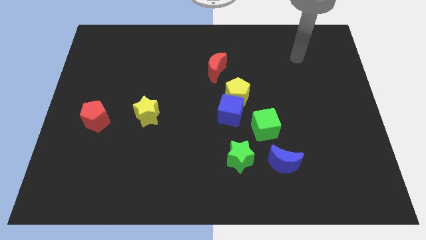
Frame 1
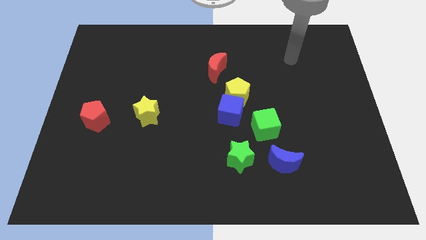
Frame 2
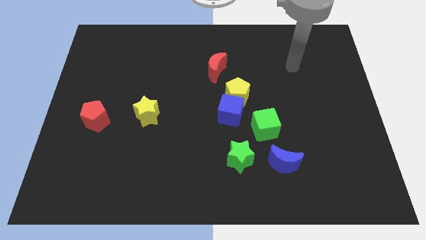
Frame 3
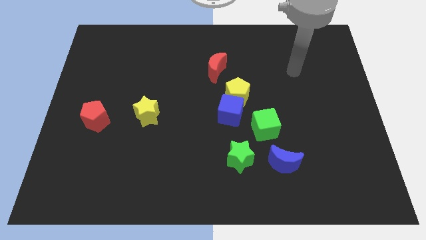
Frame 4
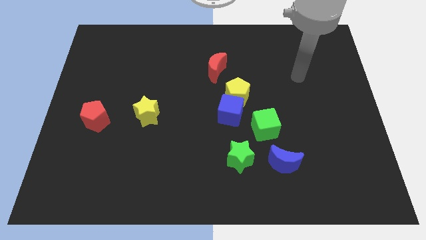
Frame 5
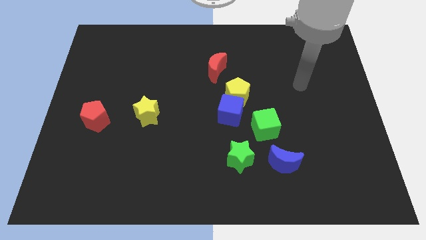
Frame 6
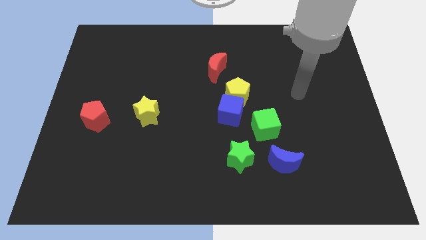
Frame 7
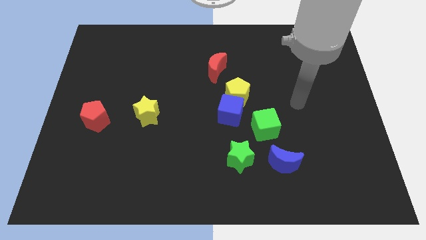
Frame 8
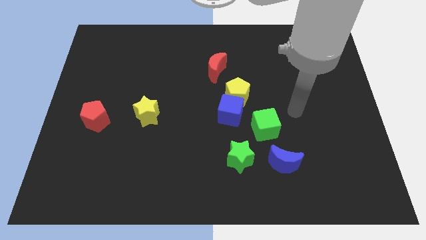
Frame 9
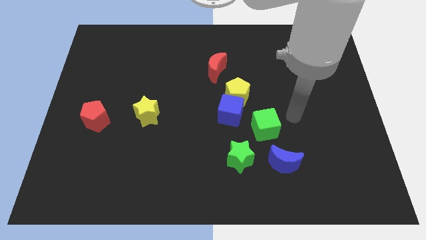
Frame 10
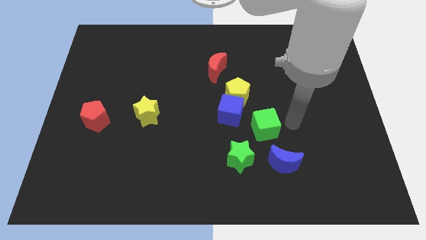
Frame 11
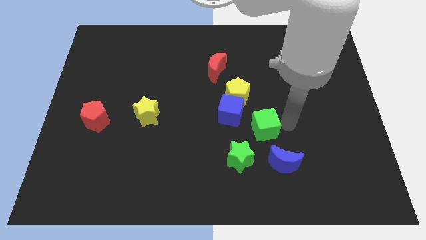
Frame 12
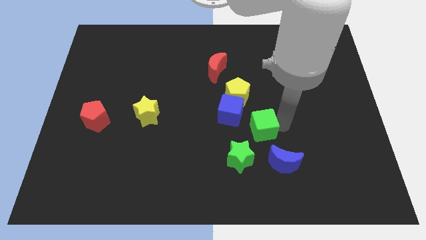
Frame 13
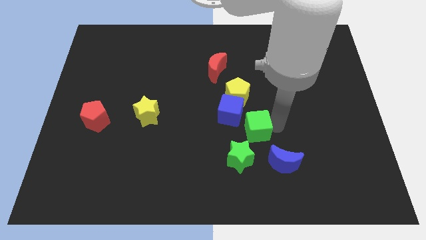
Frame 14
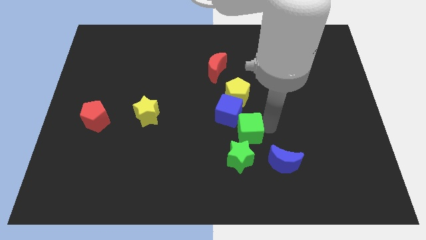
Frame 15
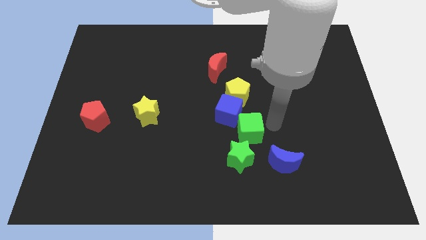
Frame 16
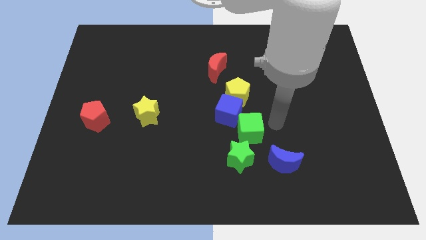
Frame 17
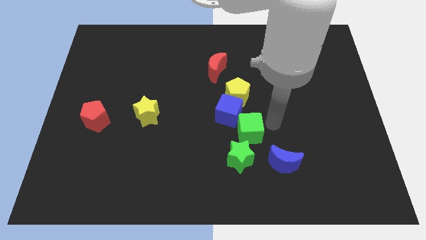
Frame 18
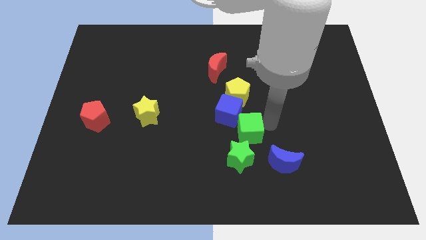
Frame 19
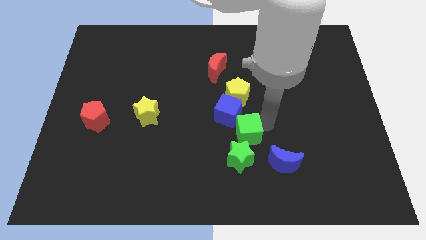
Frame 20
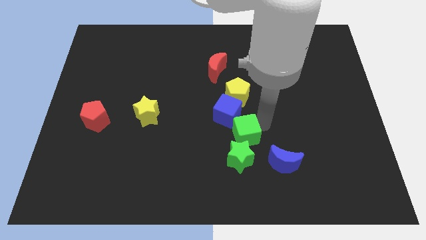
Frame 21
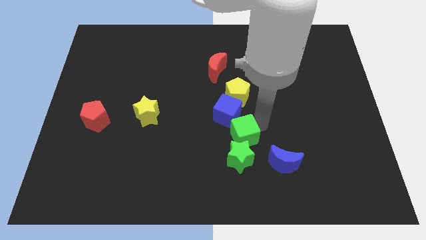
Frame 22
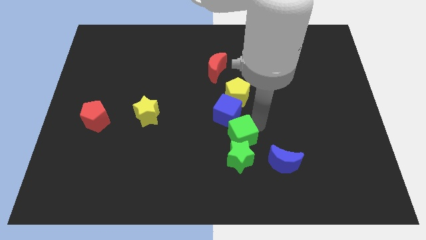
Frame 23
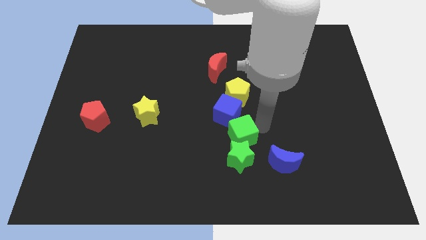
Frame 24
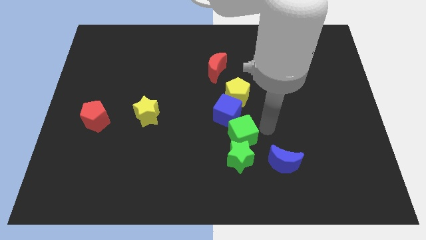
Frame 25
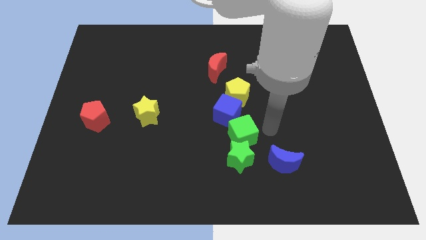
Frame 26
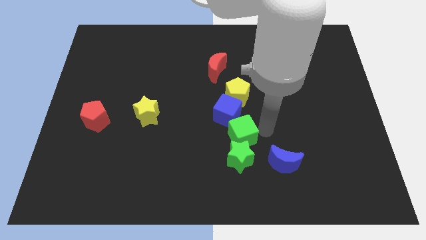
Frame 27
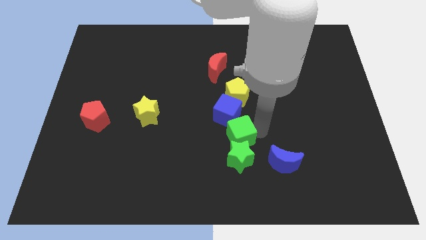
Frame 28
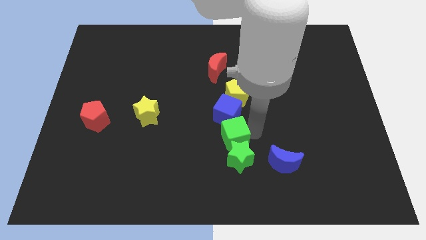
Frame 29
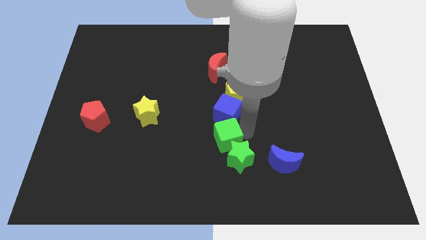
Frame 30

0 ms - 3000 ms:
slide the green cube a little bit diagonally downwards and to the left

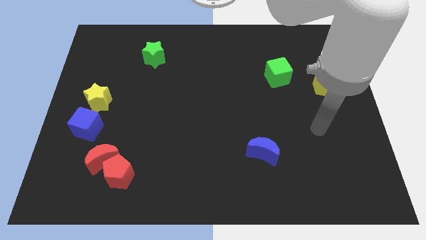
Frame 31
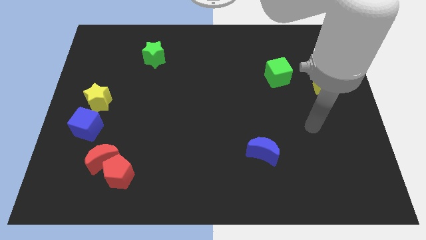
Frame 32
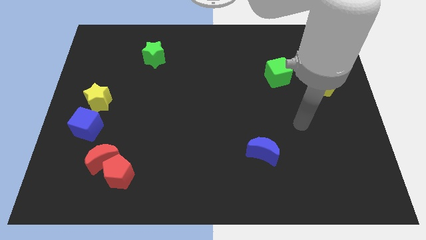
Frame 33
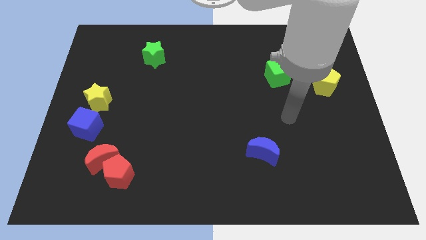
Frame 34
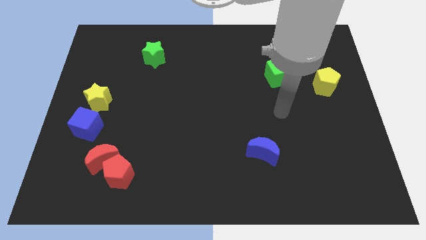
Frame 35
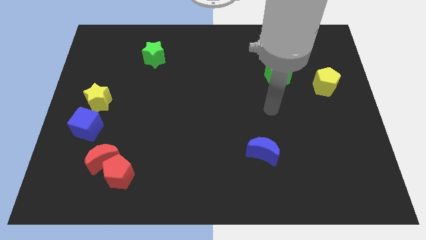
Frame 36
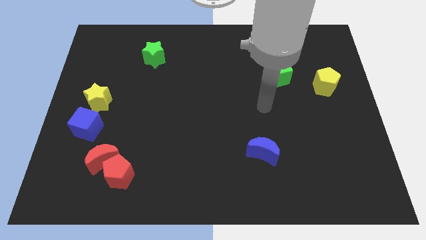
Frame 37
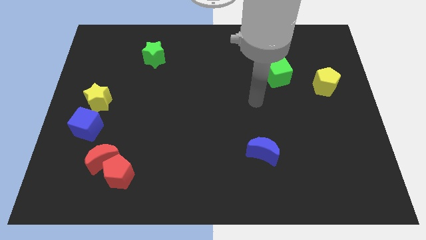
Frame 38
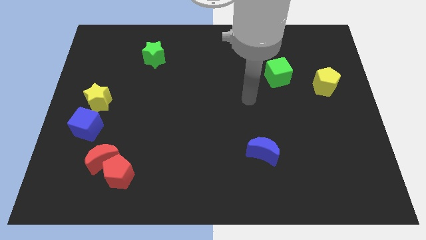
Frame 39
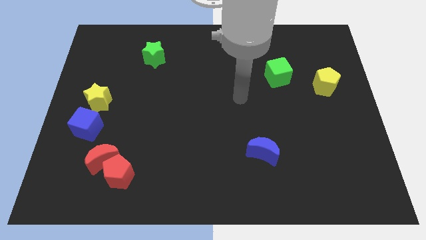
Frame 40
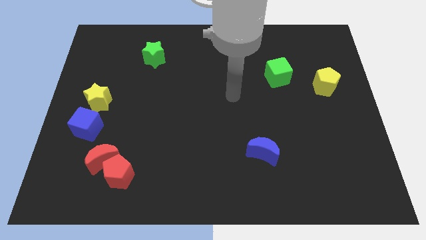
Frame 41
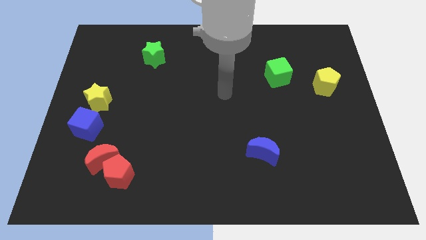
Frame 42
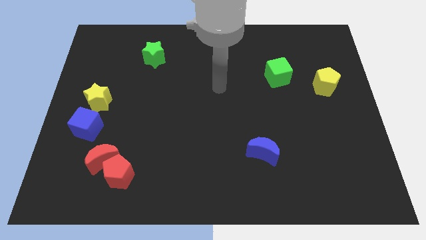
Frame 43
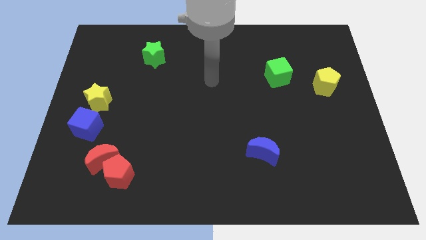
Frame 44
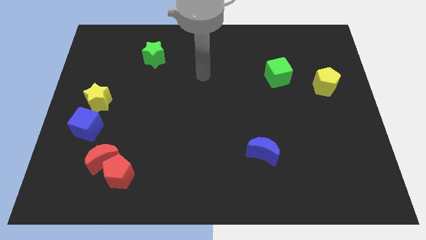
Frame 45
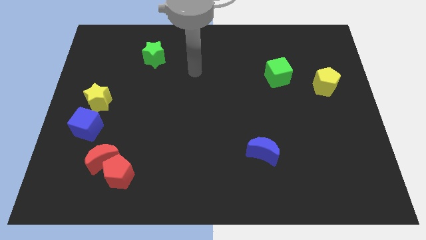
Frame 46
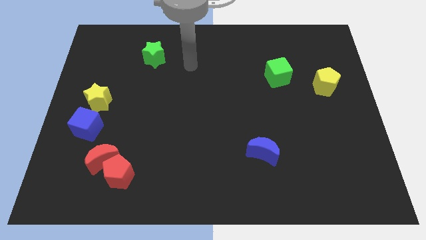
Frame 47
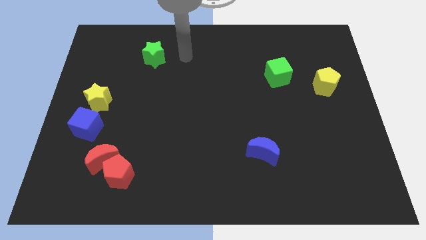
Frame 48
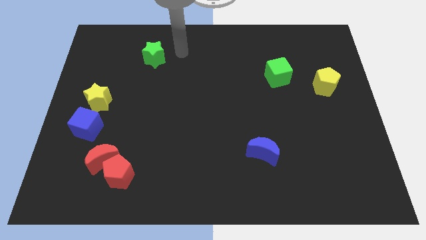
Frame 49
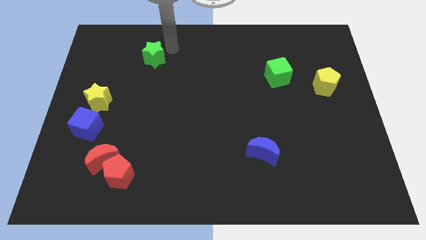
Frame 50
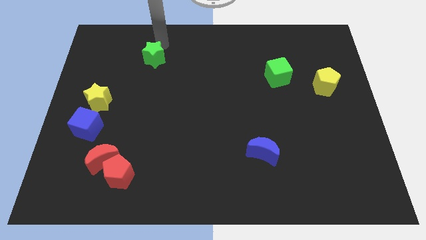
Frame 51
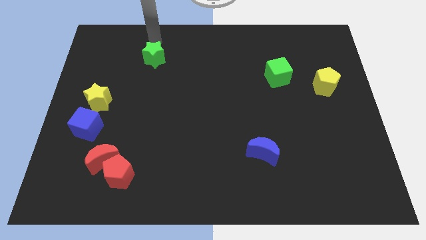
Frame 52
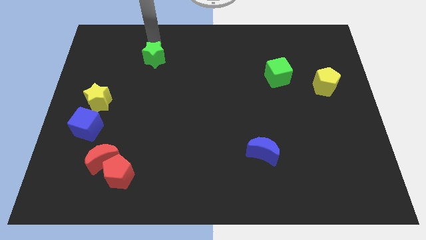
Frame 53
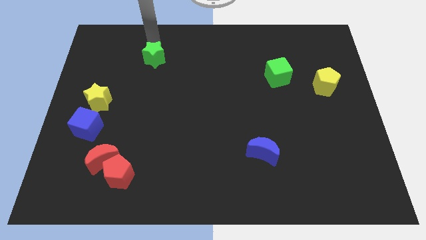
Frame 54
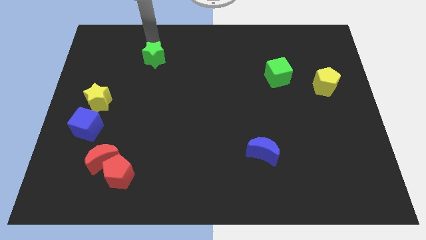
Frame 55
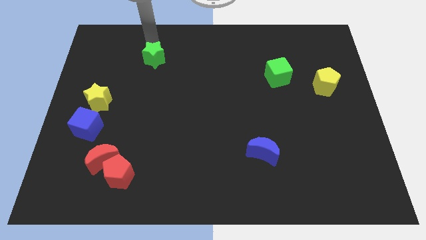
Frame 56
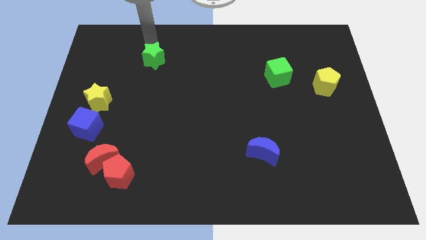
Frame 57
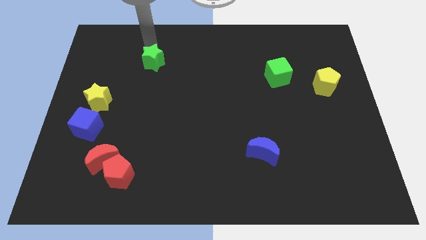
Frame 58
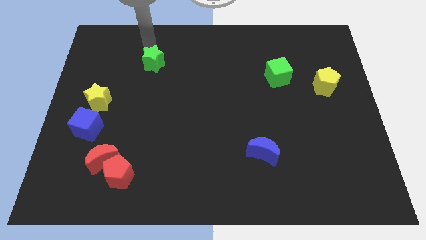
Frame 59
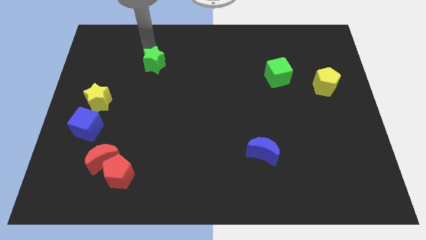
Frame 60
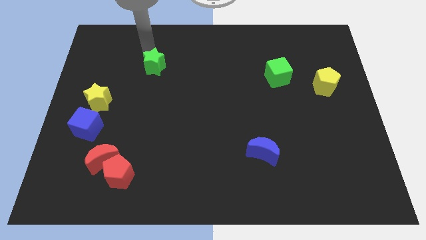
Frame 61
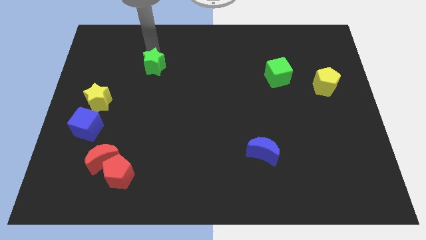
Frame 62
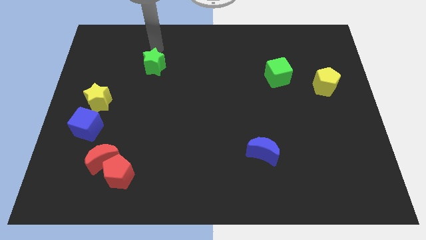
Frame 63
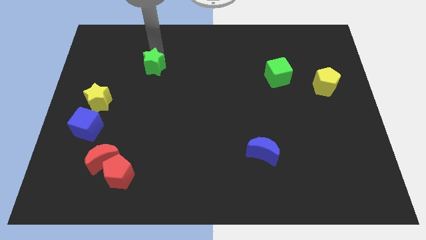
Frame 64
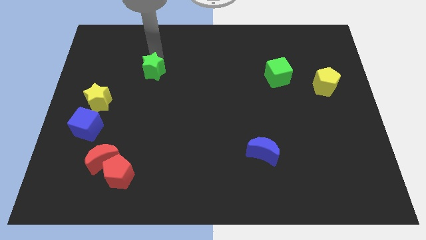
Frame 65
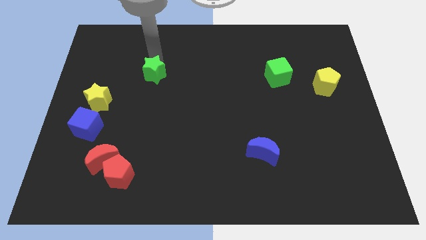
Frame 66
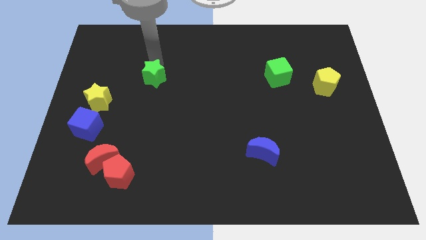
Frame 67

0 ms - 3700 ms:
slightly slide the green star downwards

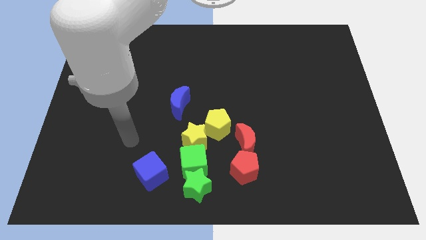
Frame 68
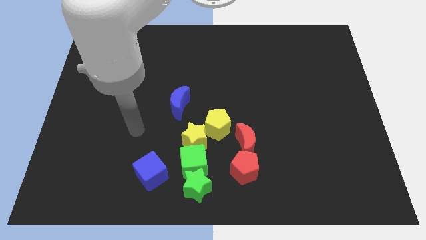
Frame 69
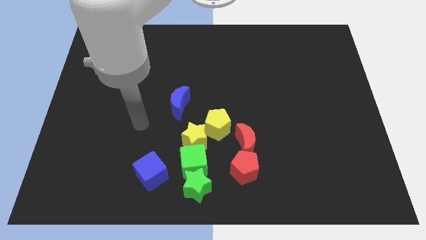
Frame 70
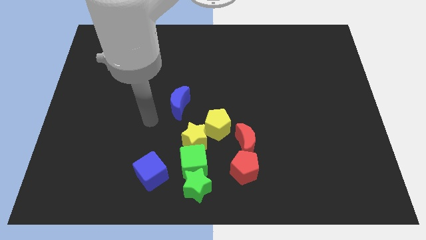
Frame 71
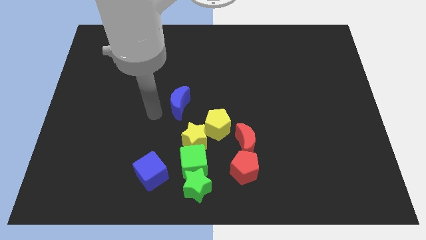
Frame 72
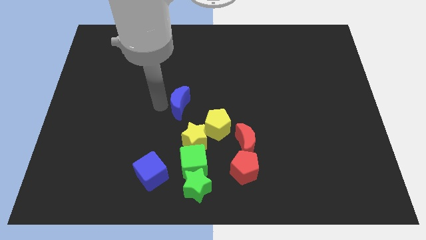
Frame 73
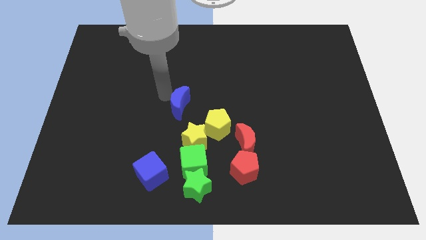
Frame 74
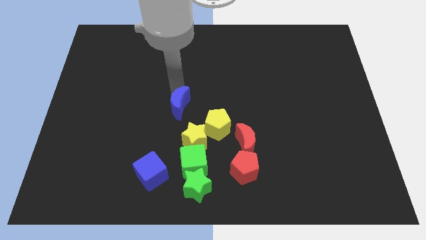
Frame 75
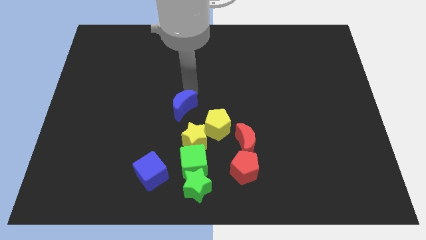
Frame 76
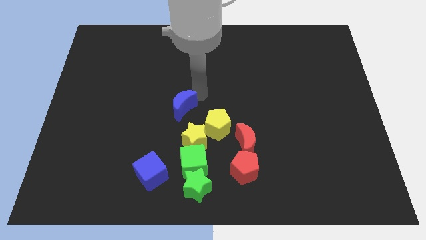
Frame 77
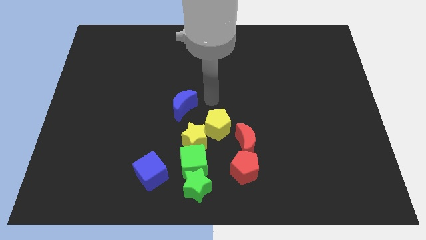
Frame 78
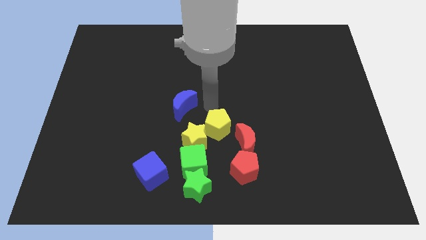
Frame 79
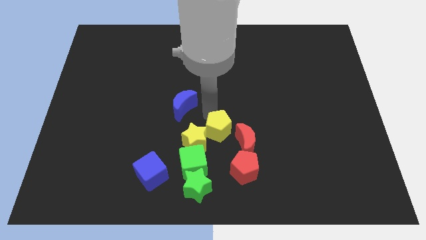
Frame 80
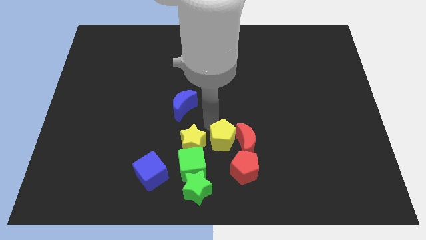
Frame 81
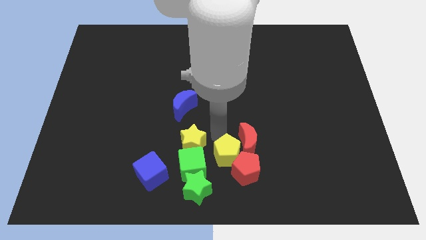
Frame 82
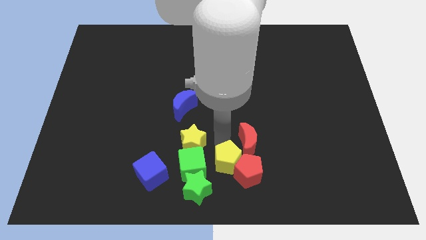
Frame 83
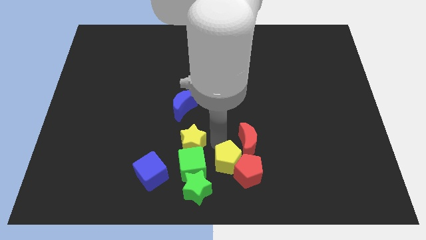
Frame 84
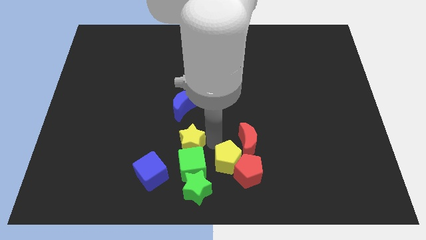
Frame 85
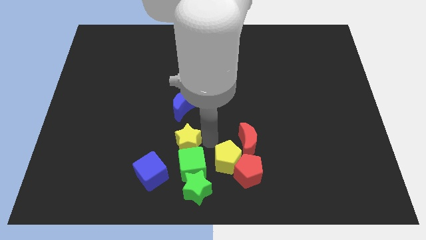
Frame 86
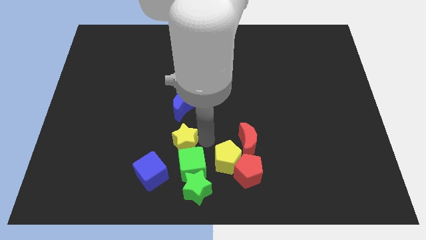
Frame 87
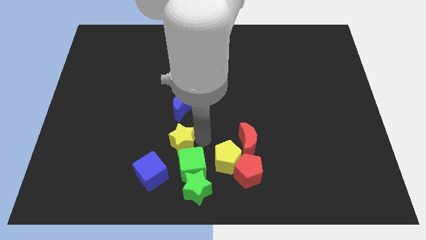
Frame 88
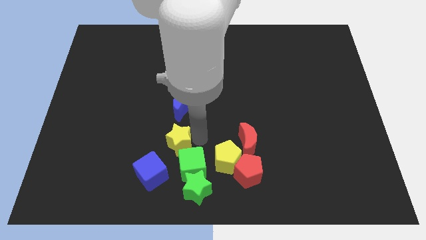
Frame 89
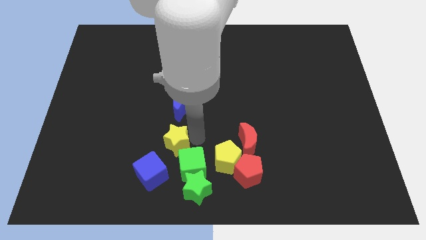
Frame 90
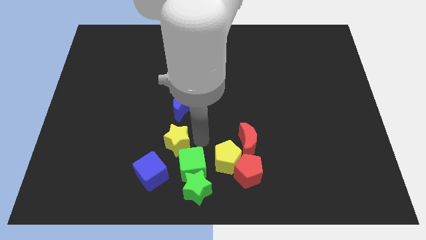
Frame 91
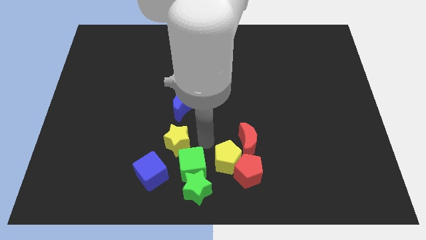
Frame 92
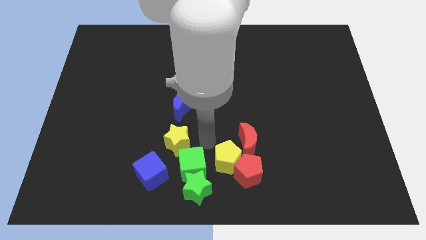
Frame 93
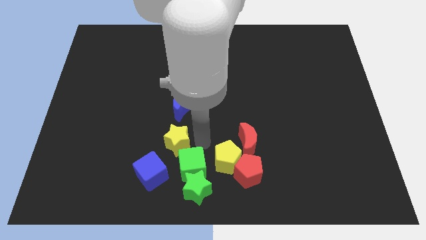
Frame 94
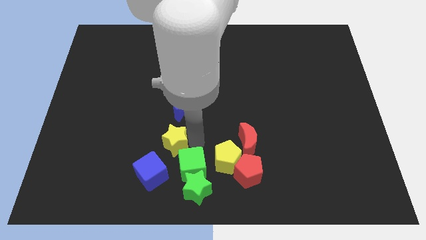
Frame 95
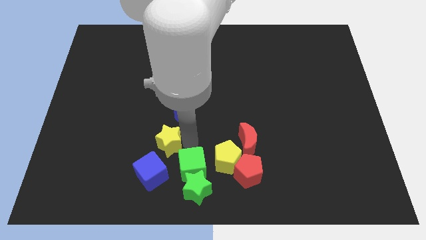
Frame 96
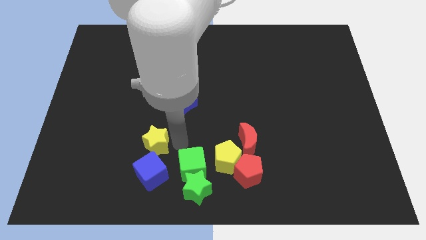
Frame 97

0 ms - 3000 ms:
slightly push the yellow star to the left
